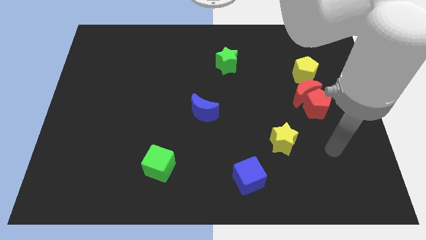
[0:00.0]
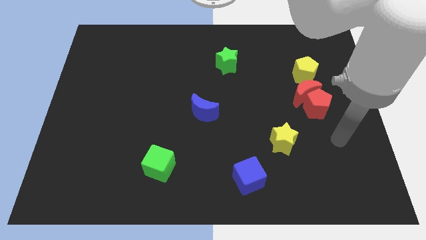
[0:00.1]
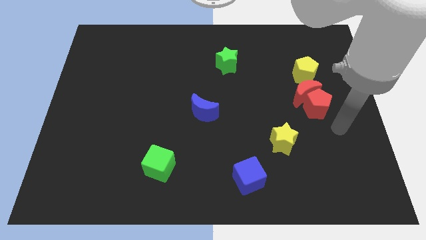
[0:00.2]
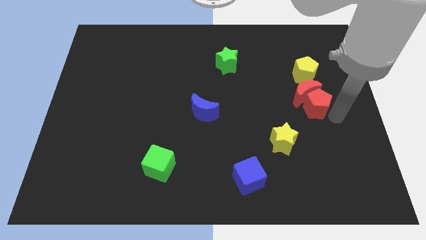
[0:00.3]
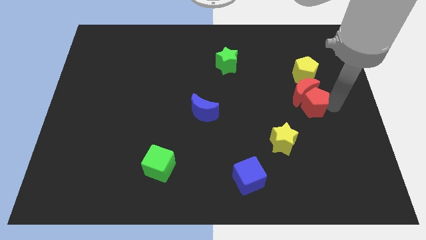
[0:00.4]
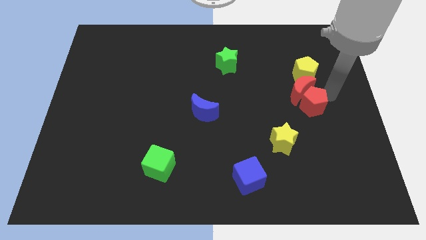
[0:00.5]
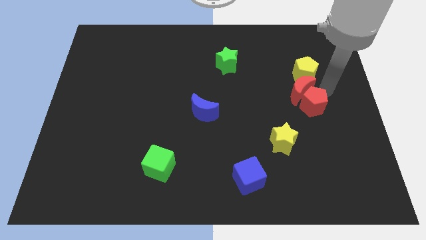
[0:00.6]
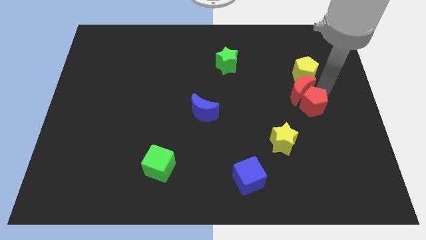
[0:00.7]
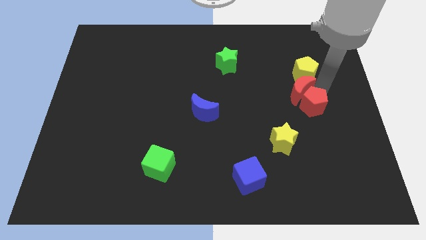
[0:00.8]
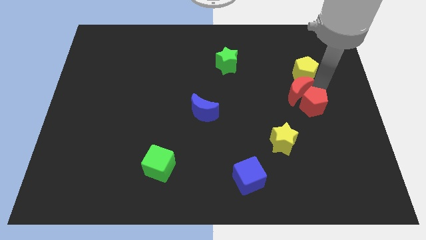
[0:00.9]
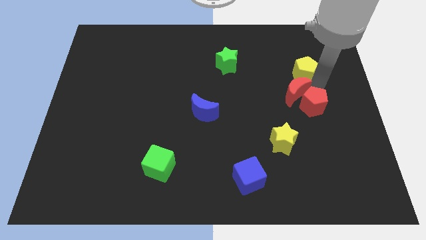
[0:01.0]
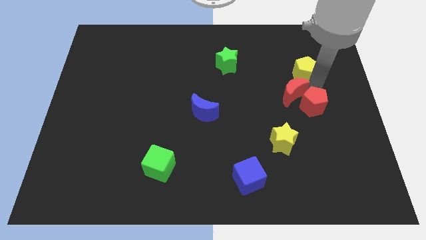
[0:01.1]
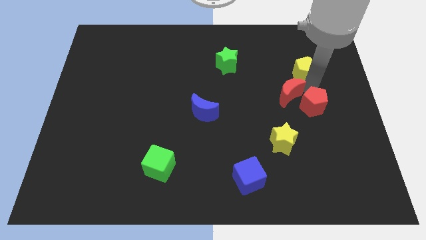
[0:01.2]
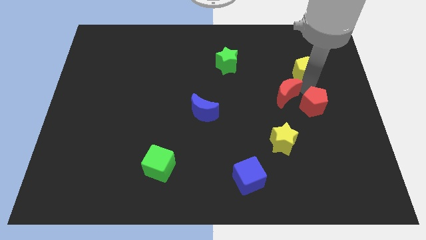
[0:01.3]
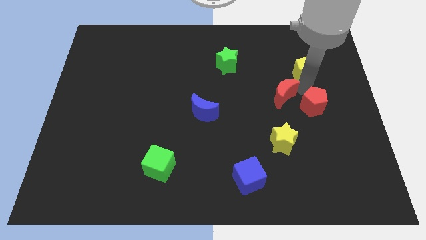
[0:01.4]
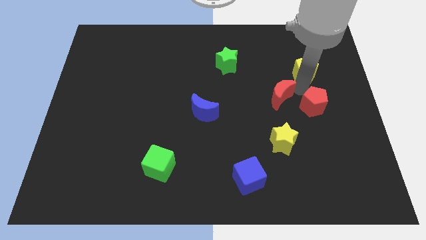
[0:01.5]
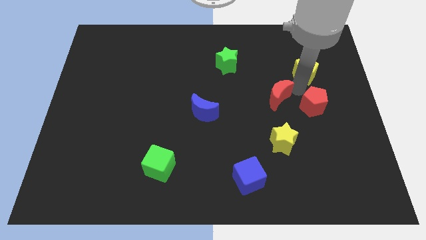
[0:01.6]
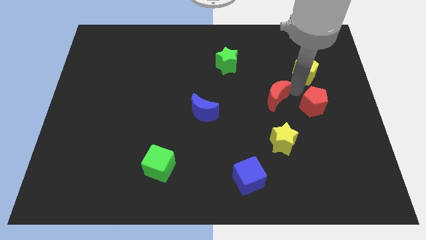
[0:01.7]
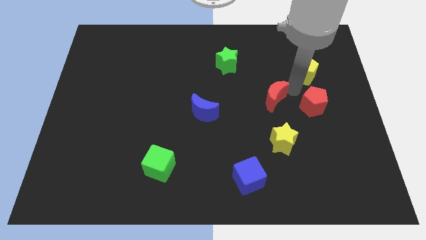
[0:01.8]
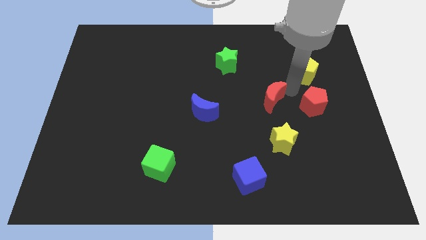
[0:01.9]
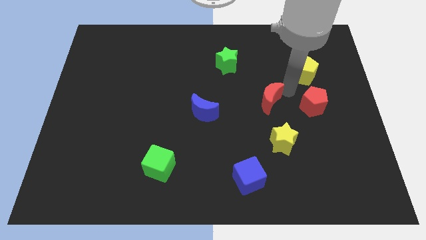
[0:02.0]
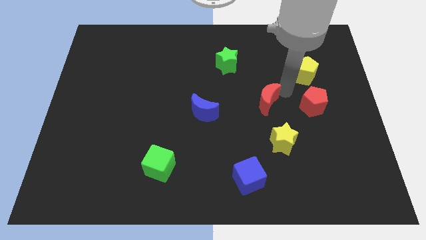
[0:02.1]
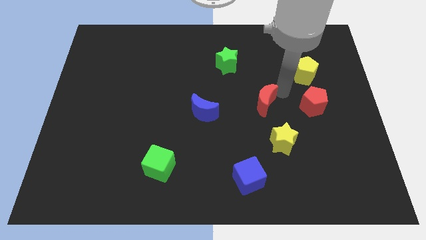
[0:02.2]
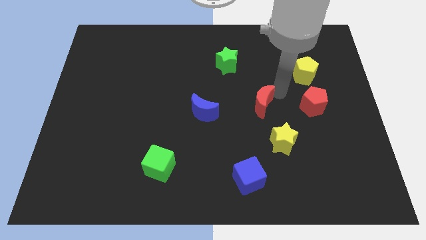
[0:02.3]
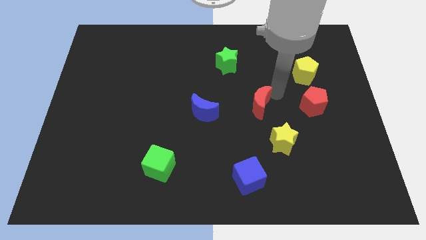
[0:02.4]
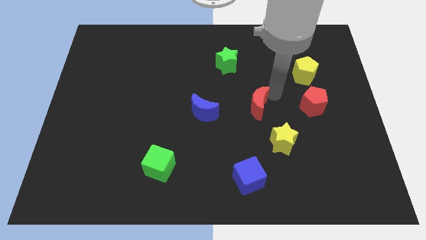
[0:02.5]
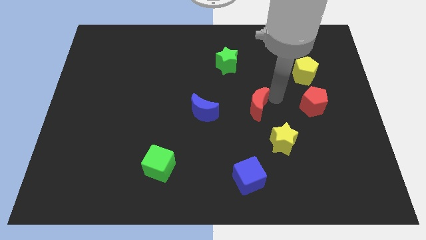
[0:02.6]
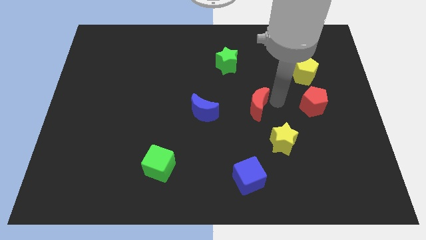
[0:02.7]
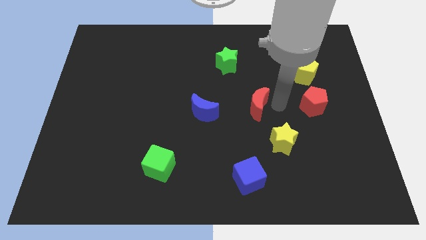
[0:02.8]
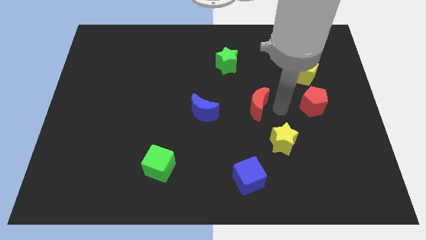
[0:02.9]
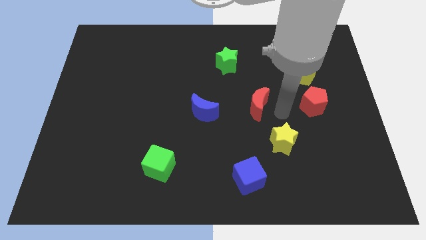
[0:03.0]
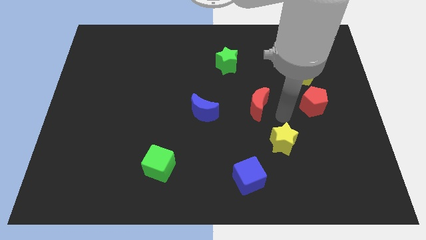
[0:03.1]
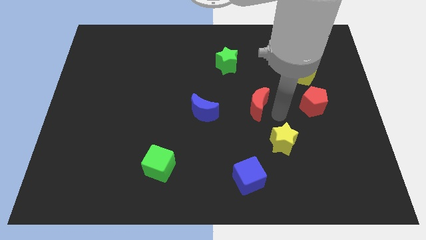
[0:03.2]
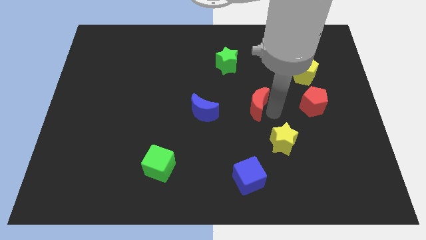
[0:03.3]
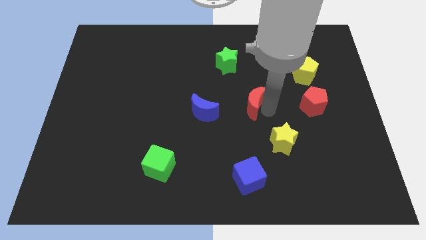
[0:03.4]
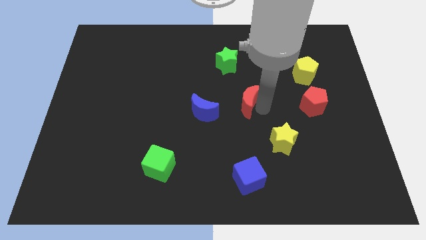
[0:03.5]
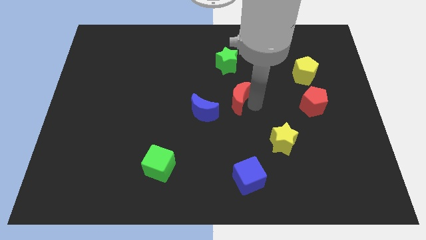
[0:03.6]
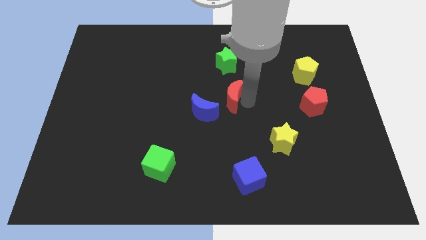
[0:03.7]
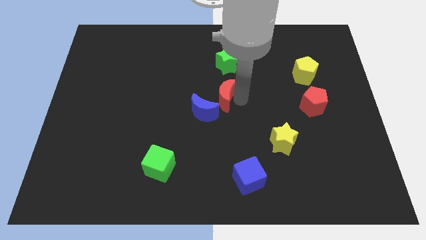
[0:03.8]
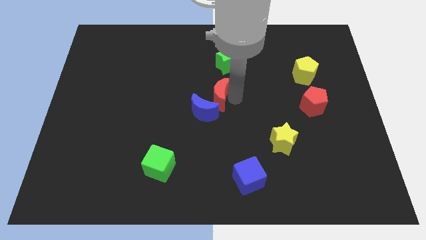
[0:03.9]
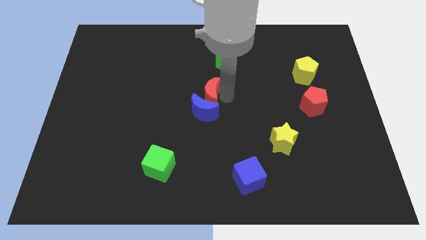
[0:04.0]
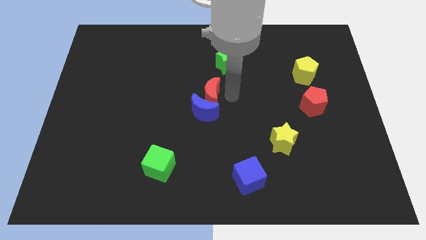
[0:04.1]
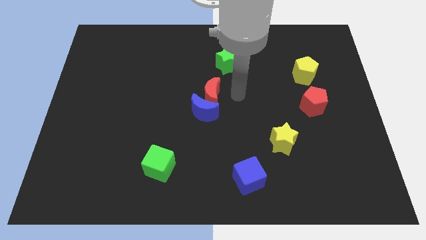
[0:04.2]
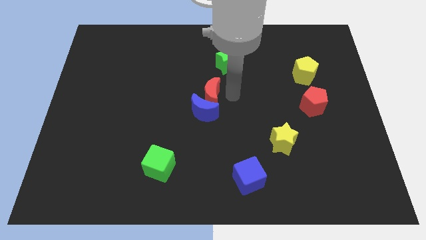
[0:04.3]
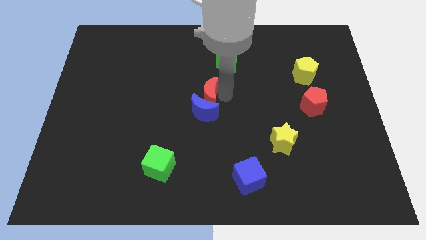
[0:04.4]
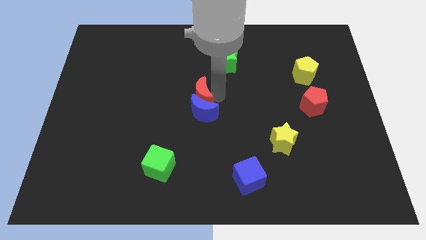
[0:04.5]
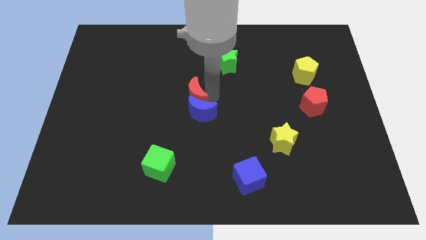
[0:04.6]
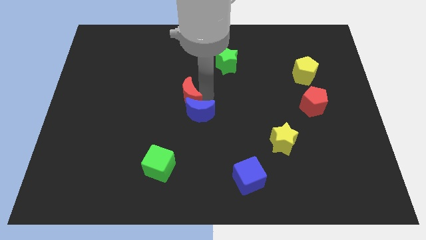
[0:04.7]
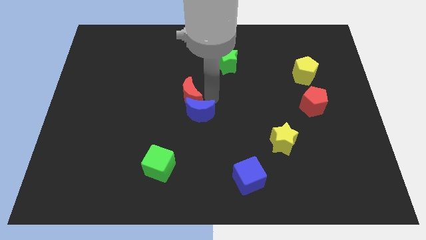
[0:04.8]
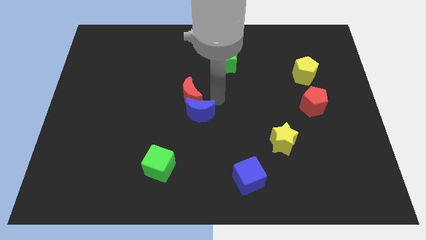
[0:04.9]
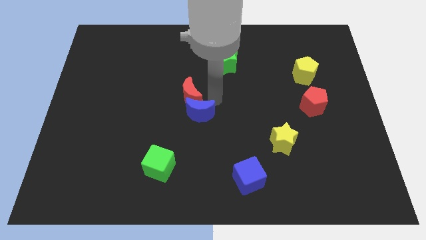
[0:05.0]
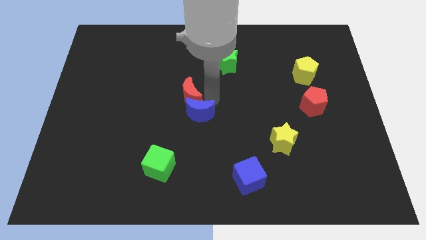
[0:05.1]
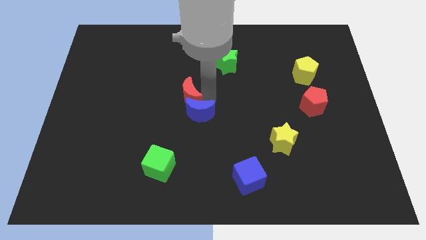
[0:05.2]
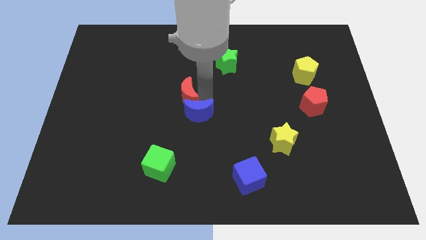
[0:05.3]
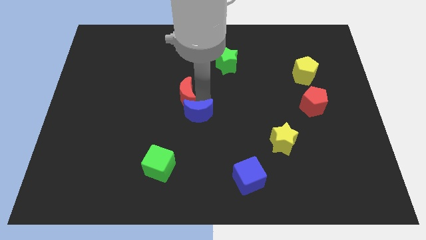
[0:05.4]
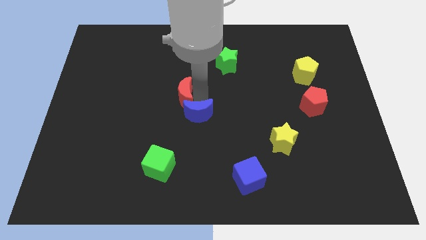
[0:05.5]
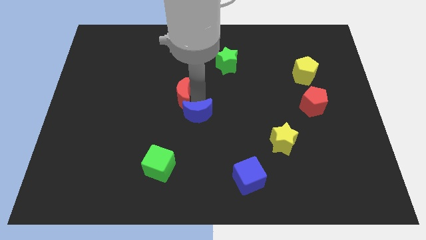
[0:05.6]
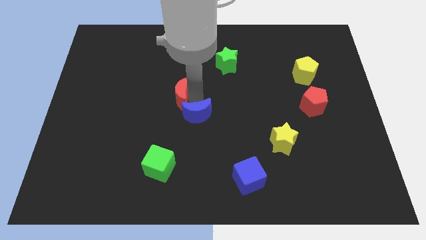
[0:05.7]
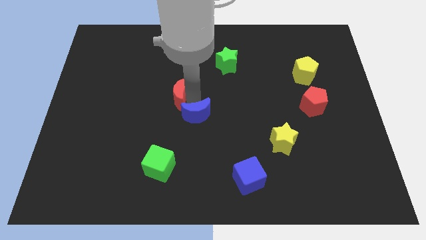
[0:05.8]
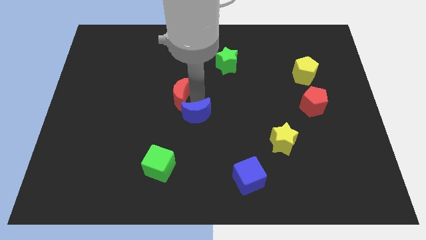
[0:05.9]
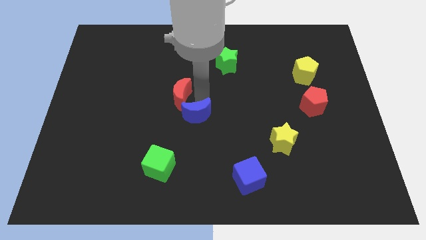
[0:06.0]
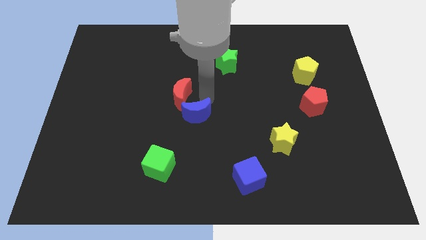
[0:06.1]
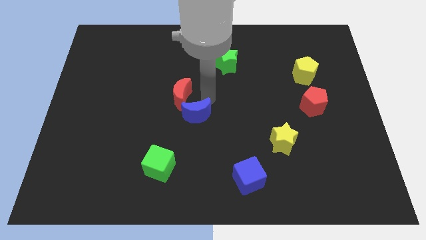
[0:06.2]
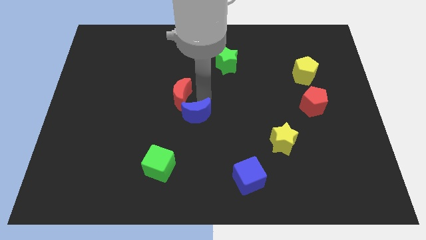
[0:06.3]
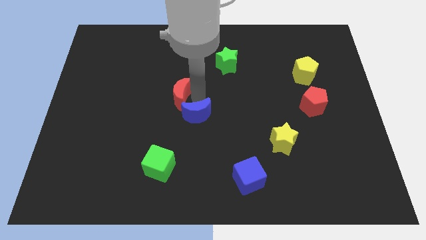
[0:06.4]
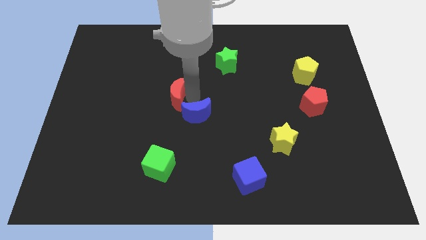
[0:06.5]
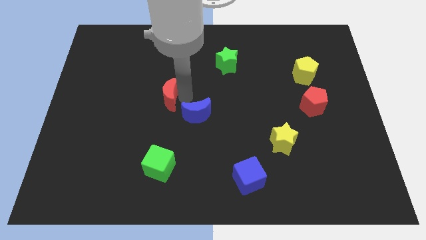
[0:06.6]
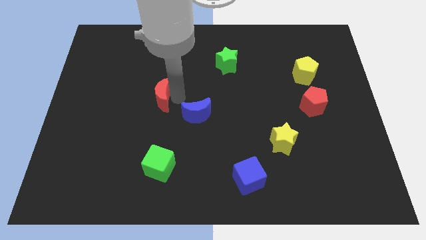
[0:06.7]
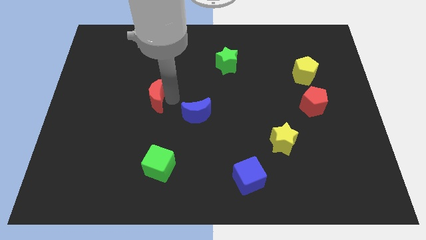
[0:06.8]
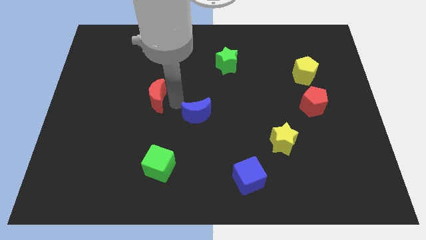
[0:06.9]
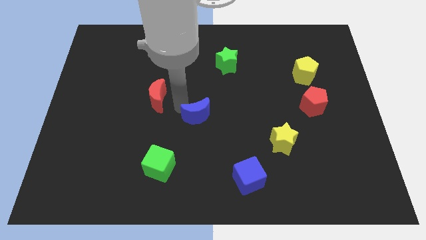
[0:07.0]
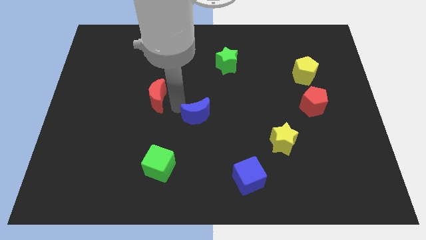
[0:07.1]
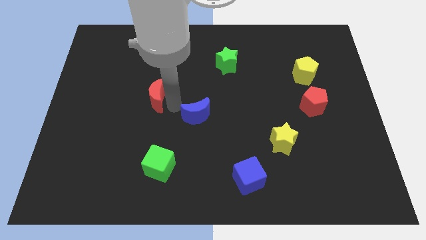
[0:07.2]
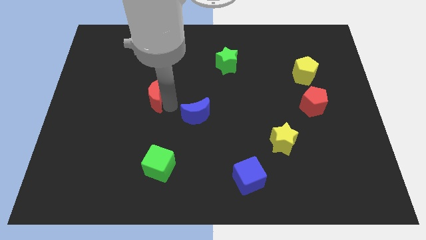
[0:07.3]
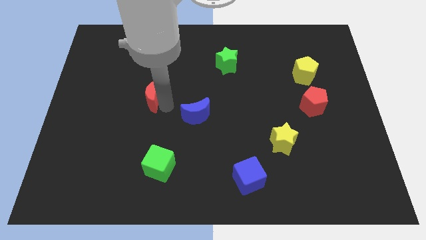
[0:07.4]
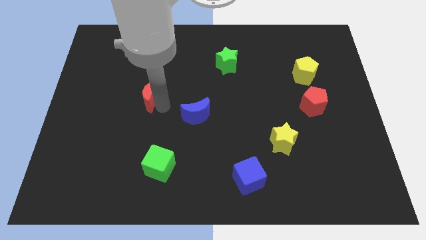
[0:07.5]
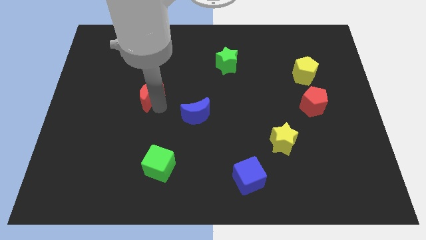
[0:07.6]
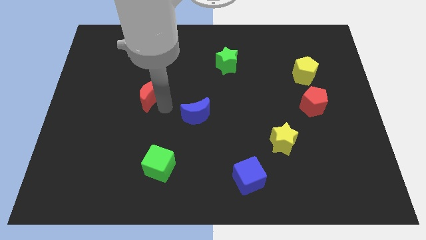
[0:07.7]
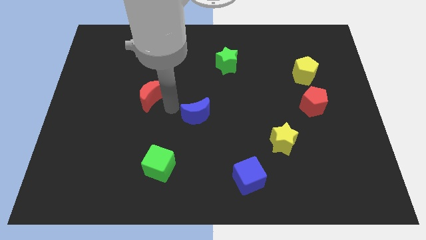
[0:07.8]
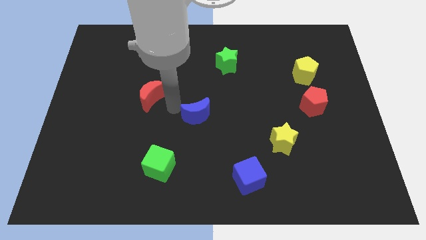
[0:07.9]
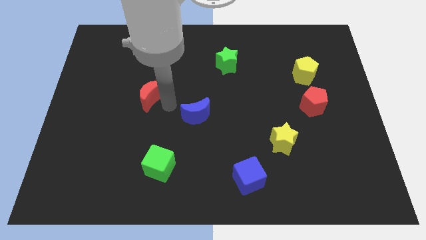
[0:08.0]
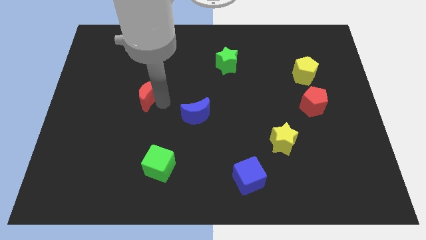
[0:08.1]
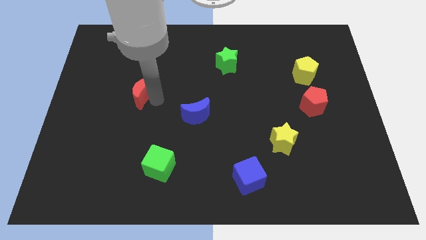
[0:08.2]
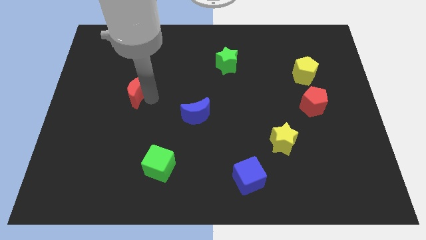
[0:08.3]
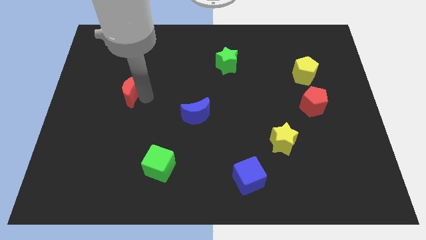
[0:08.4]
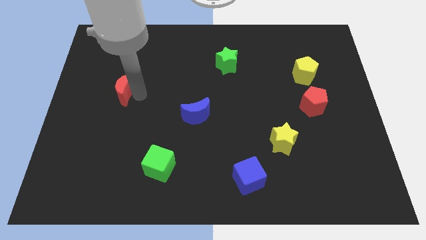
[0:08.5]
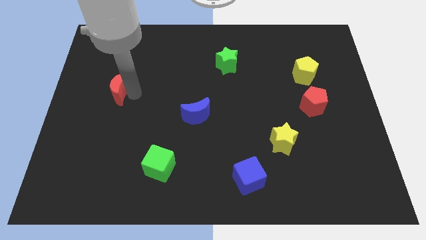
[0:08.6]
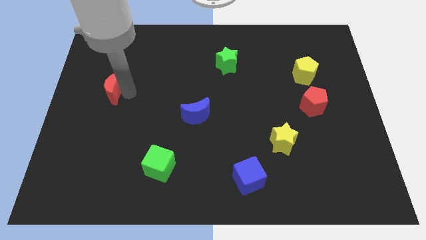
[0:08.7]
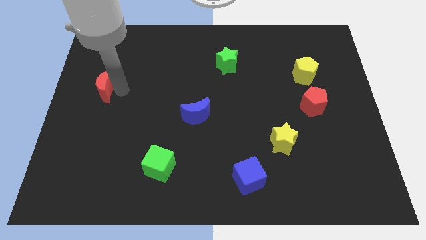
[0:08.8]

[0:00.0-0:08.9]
put the red moon to the left side
